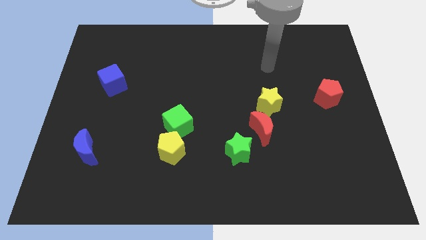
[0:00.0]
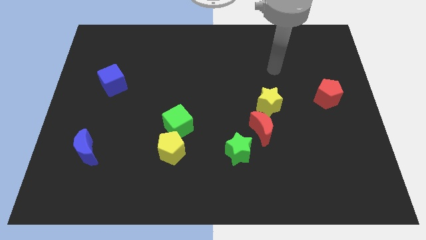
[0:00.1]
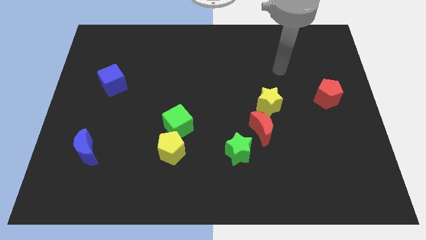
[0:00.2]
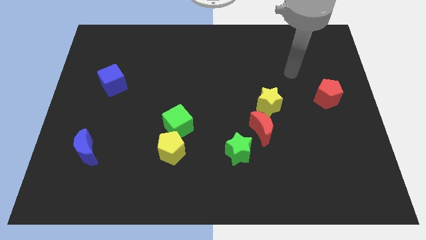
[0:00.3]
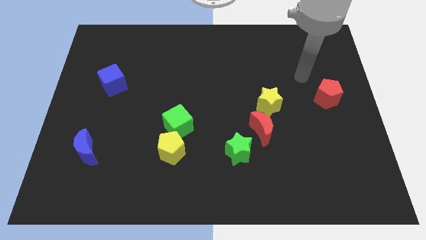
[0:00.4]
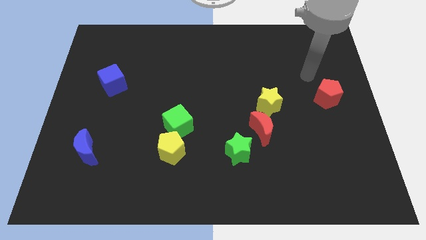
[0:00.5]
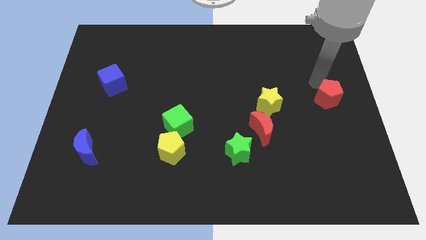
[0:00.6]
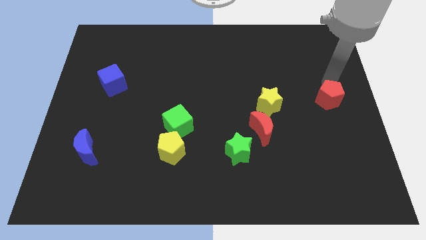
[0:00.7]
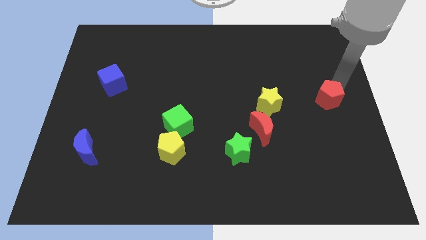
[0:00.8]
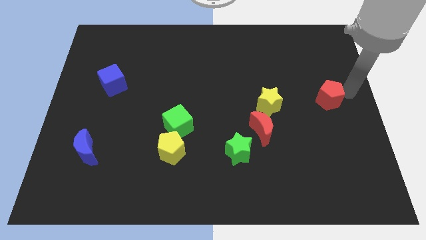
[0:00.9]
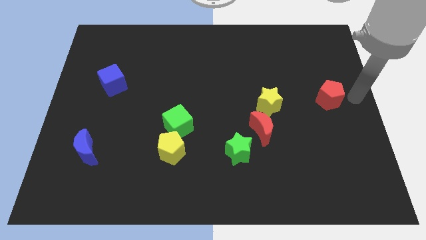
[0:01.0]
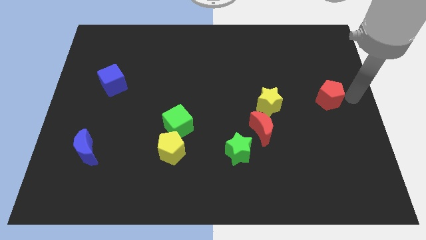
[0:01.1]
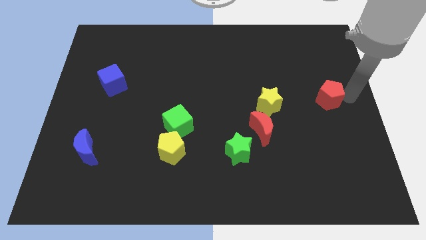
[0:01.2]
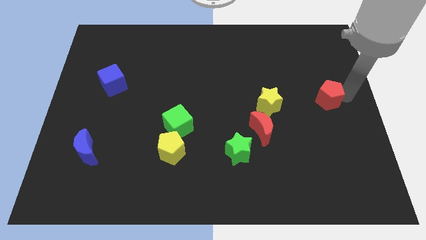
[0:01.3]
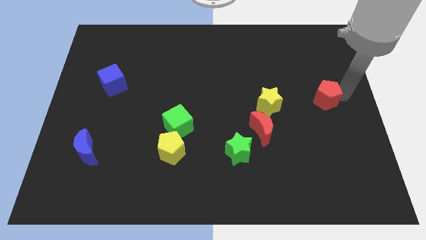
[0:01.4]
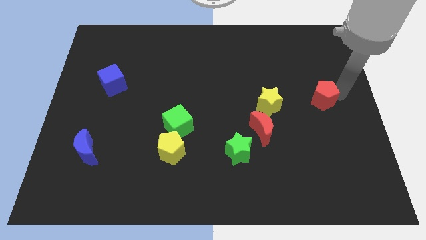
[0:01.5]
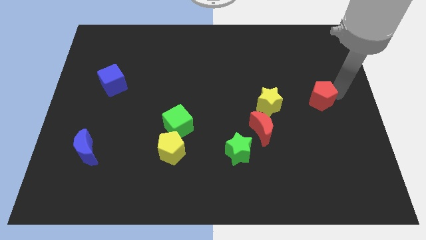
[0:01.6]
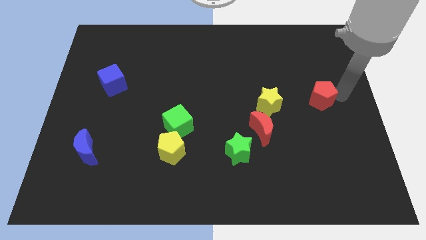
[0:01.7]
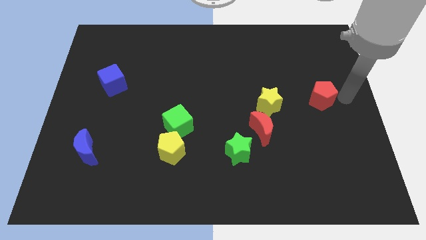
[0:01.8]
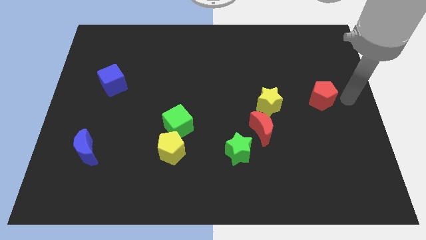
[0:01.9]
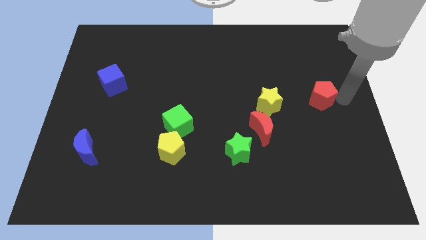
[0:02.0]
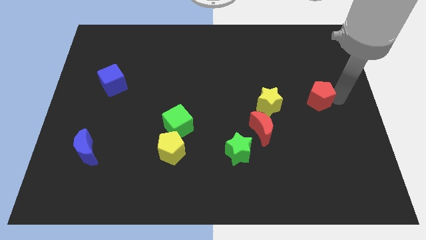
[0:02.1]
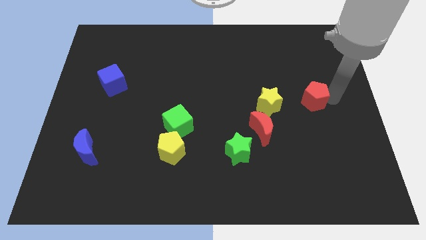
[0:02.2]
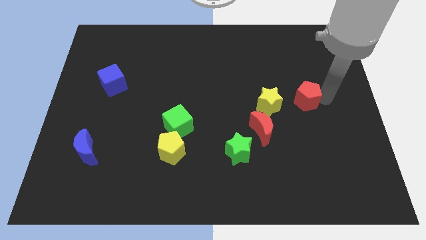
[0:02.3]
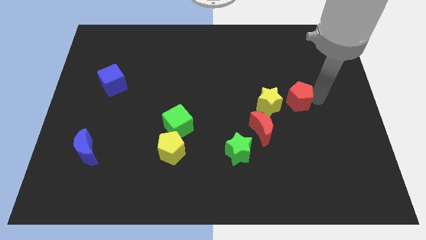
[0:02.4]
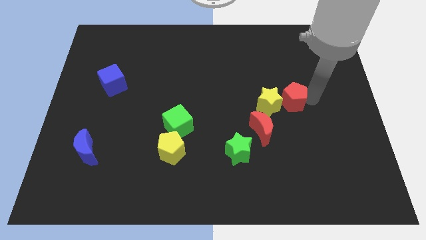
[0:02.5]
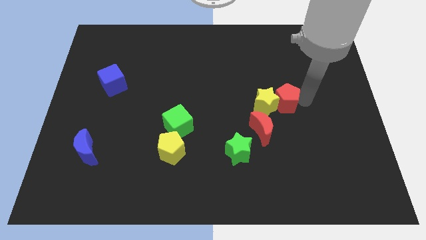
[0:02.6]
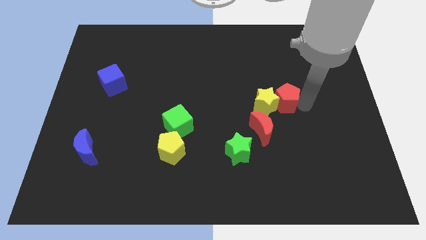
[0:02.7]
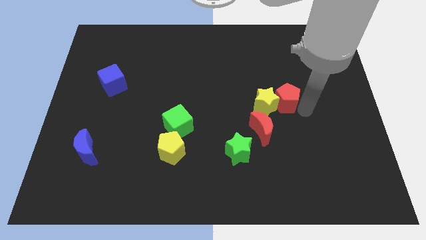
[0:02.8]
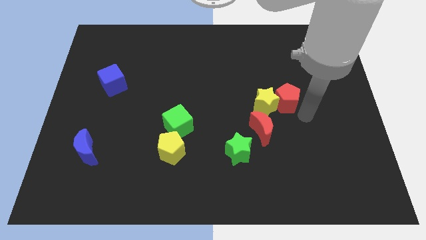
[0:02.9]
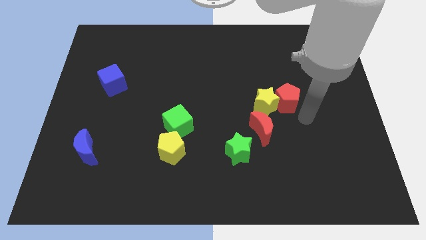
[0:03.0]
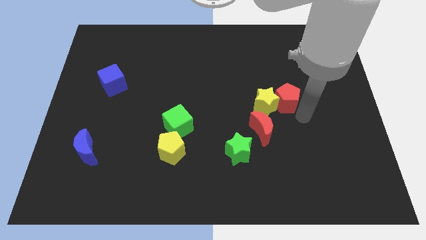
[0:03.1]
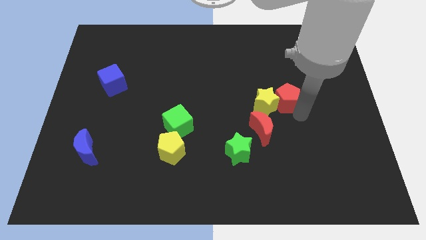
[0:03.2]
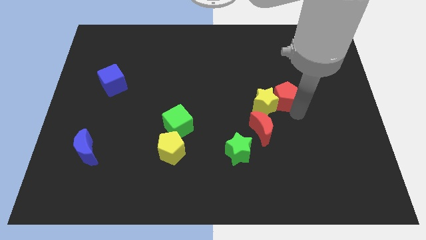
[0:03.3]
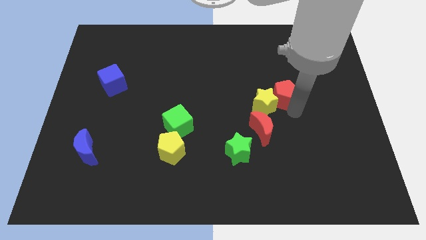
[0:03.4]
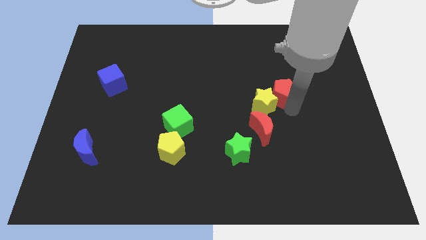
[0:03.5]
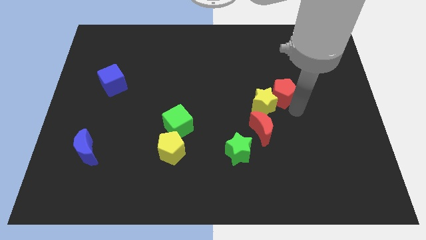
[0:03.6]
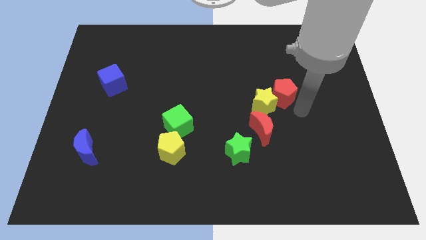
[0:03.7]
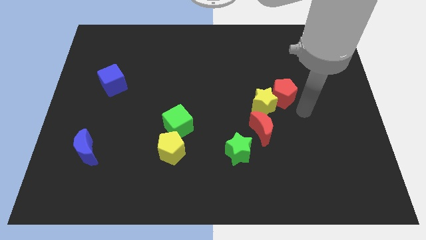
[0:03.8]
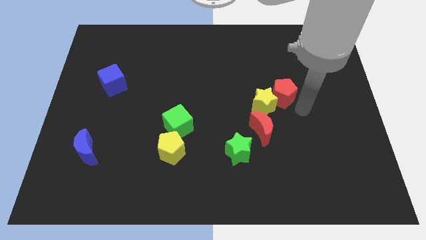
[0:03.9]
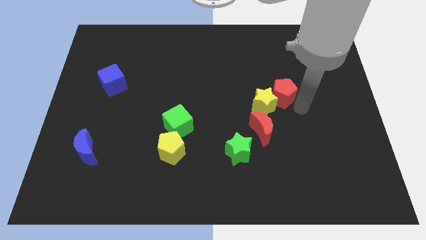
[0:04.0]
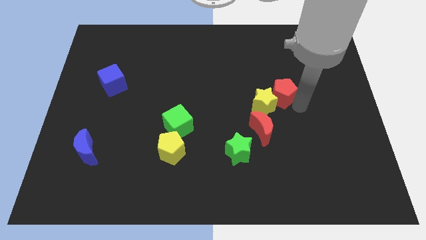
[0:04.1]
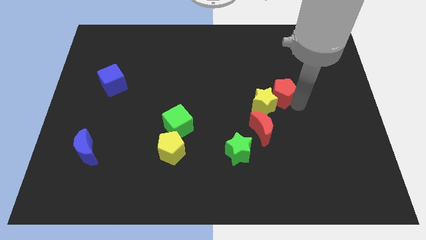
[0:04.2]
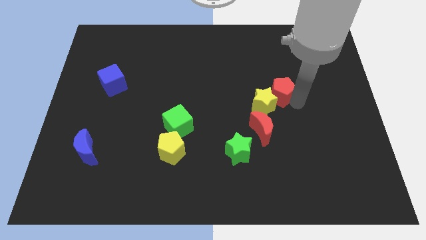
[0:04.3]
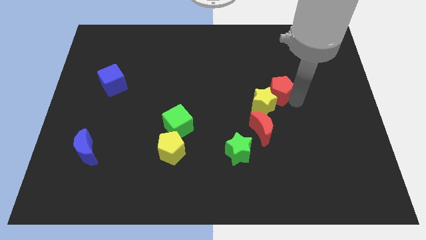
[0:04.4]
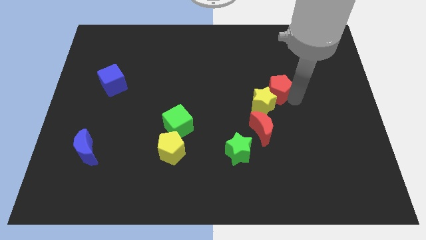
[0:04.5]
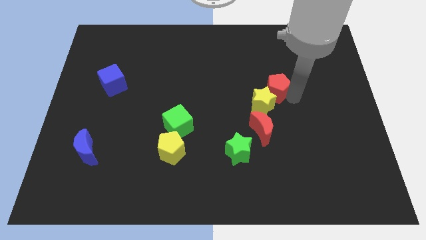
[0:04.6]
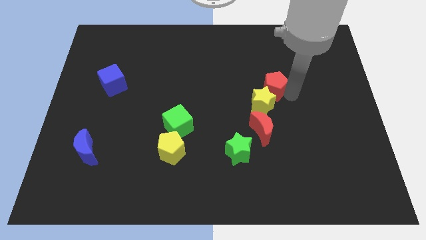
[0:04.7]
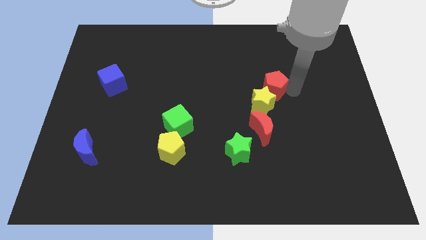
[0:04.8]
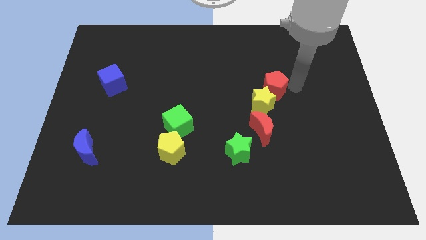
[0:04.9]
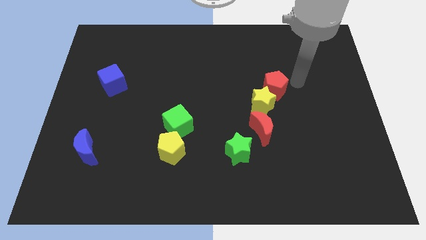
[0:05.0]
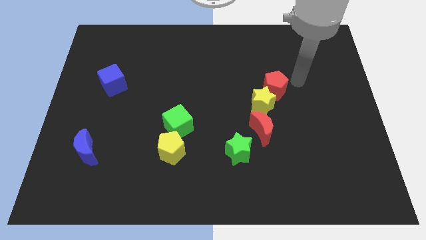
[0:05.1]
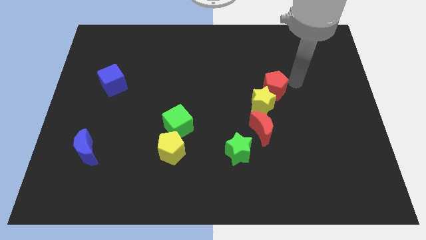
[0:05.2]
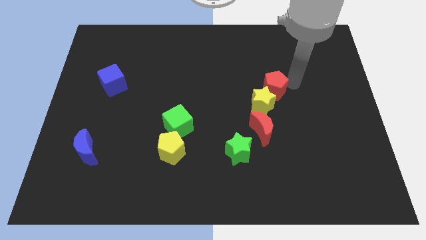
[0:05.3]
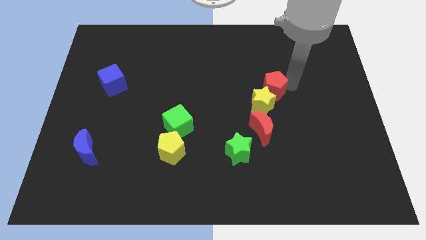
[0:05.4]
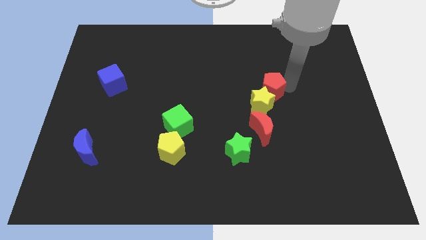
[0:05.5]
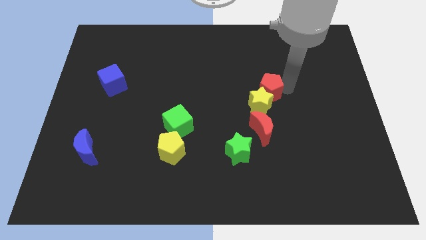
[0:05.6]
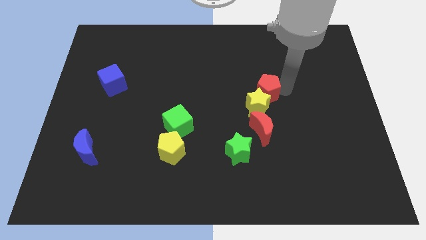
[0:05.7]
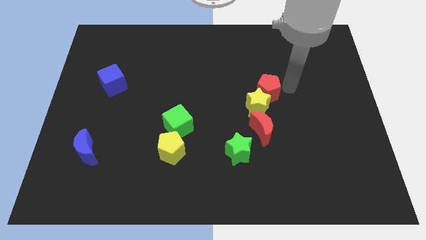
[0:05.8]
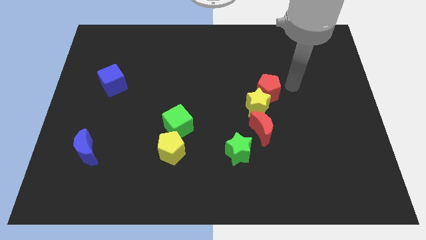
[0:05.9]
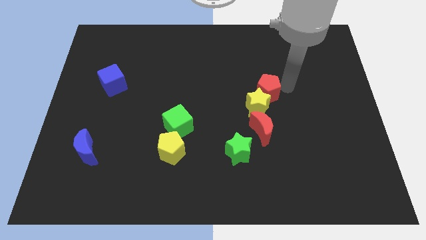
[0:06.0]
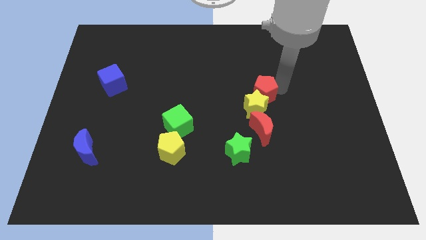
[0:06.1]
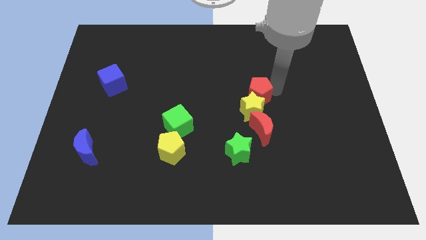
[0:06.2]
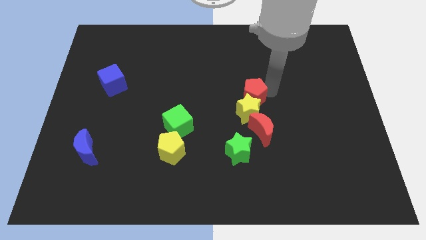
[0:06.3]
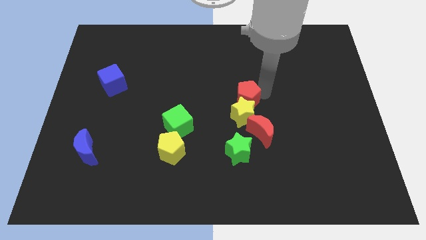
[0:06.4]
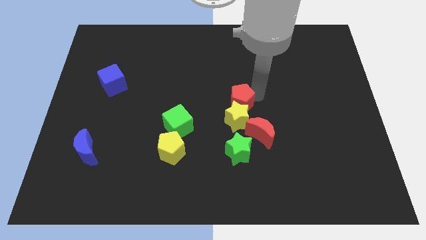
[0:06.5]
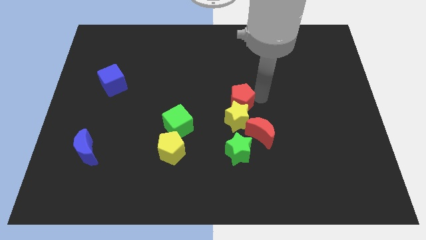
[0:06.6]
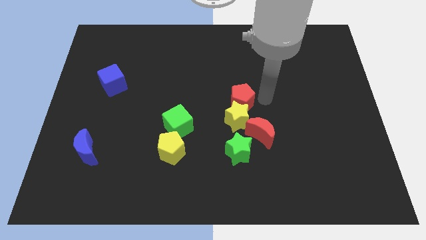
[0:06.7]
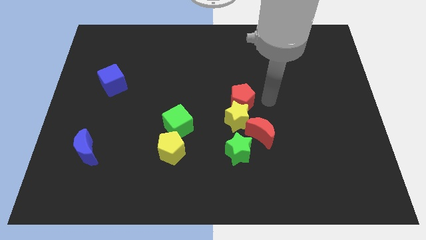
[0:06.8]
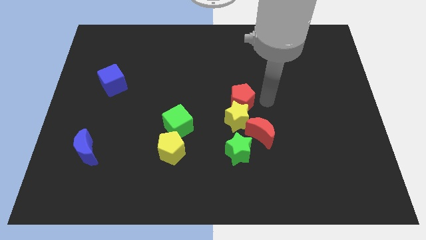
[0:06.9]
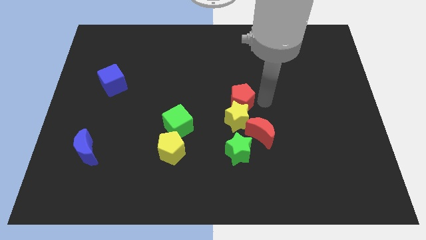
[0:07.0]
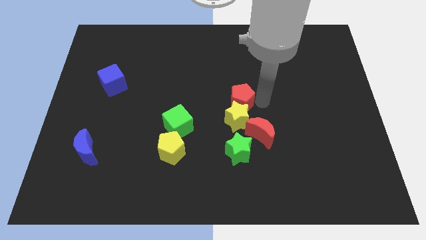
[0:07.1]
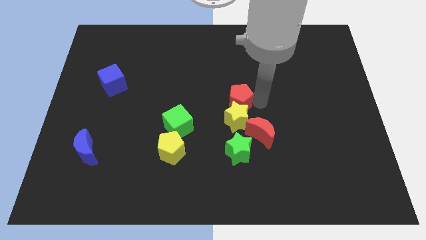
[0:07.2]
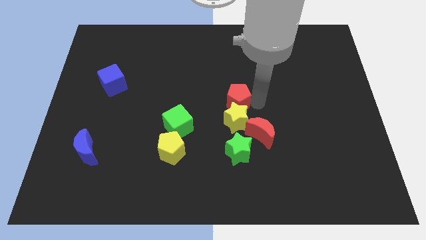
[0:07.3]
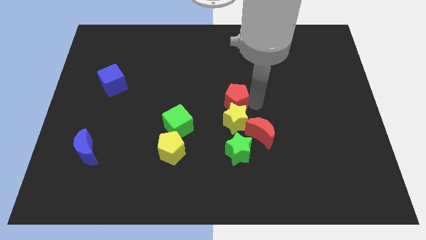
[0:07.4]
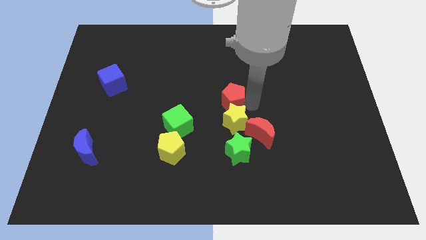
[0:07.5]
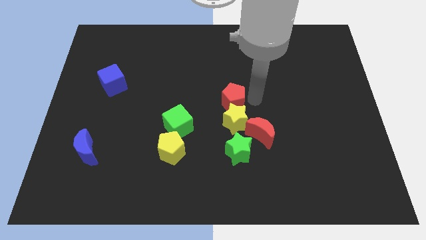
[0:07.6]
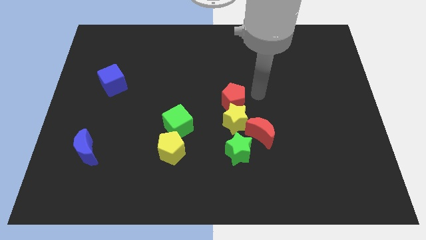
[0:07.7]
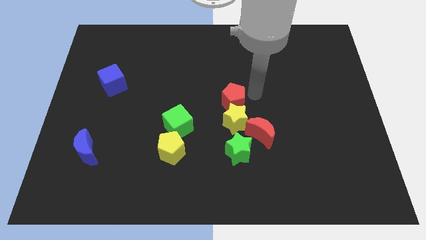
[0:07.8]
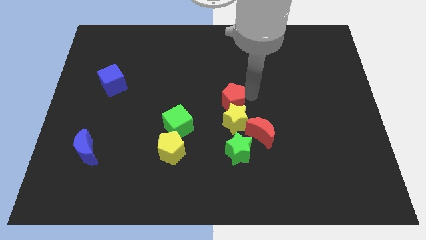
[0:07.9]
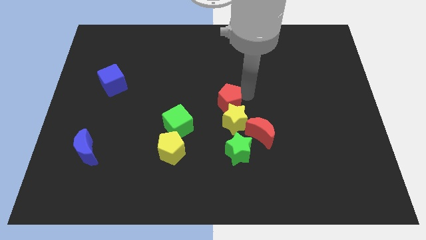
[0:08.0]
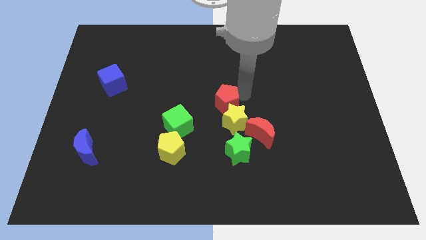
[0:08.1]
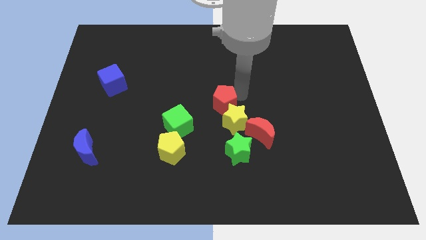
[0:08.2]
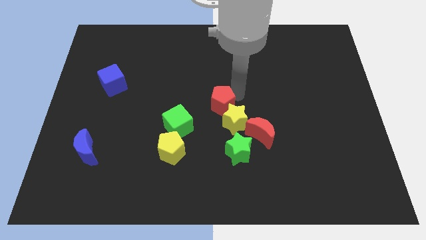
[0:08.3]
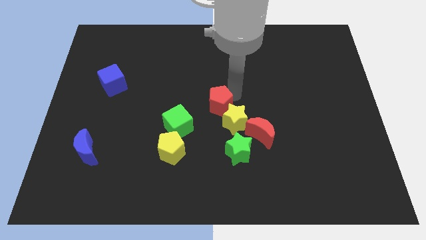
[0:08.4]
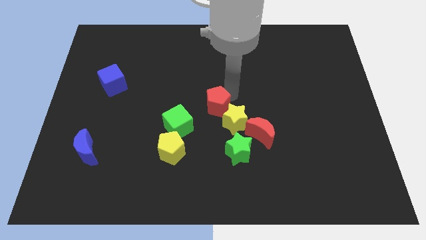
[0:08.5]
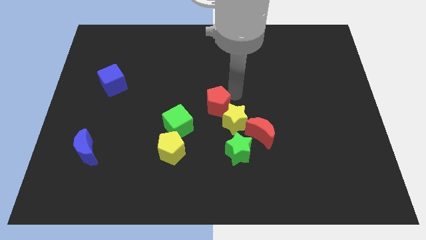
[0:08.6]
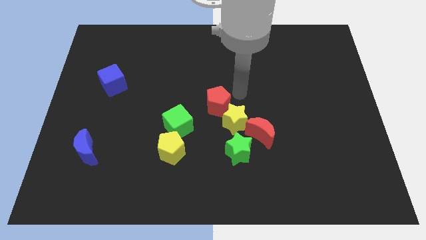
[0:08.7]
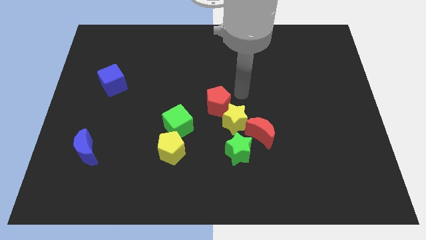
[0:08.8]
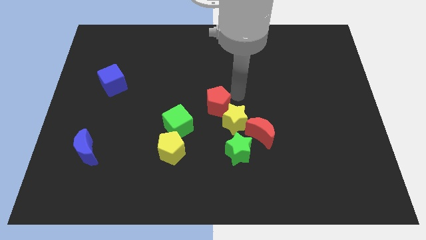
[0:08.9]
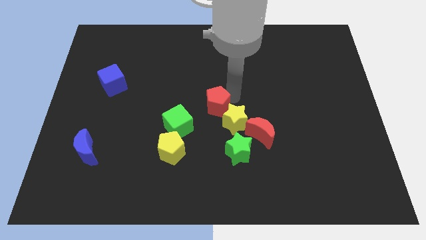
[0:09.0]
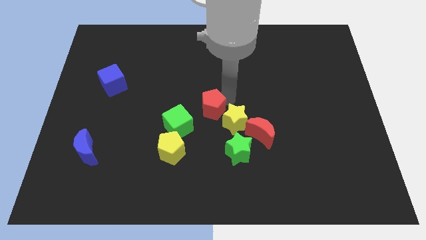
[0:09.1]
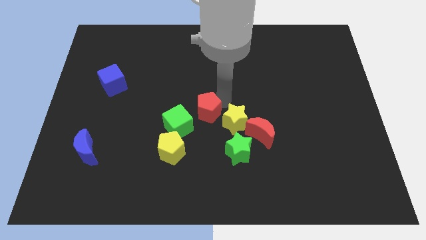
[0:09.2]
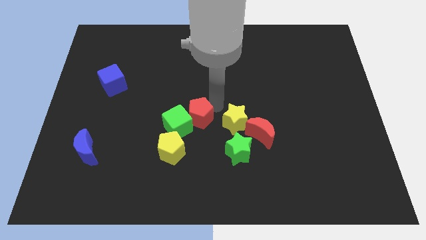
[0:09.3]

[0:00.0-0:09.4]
slide the red pentagon towards the green cube
